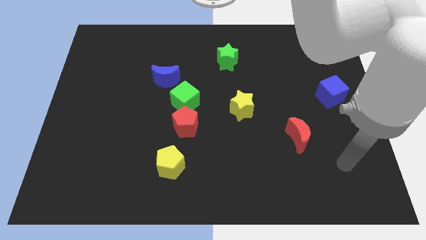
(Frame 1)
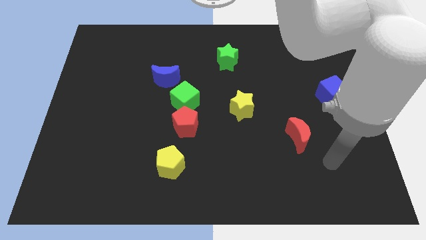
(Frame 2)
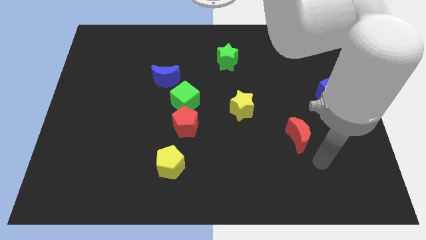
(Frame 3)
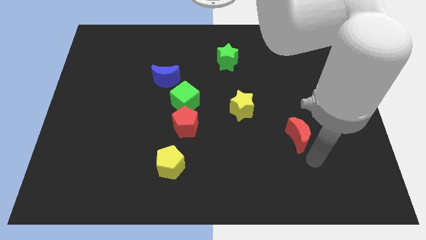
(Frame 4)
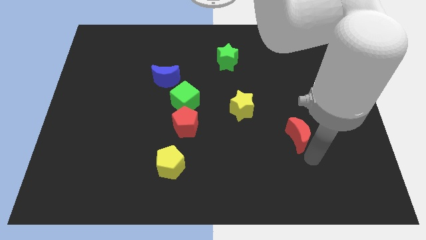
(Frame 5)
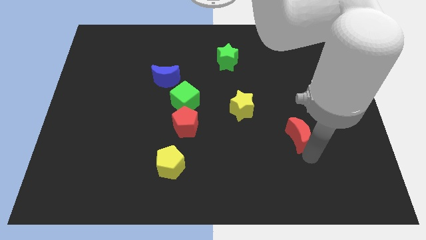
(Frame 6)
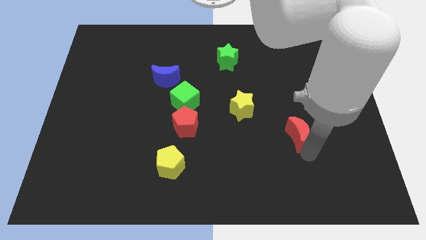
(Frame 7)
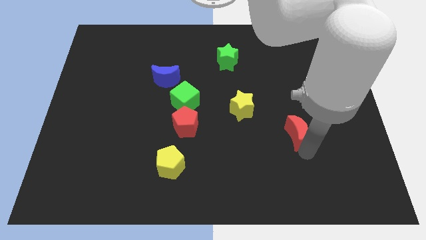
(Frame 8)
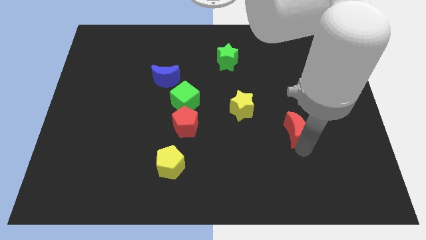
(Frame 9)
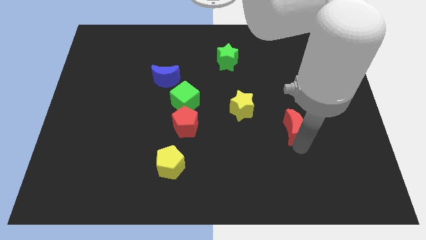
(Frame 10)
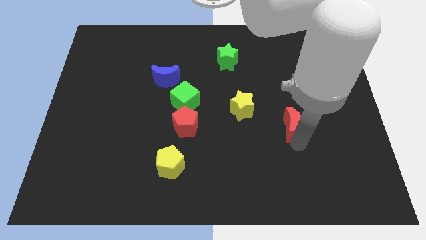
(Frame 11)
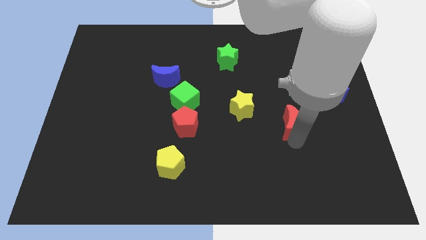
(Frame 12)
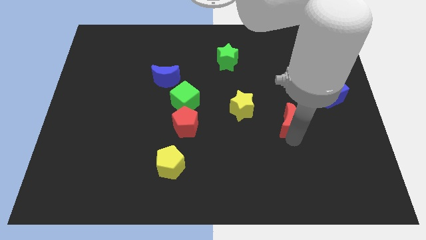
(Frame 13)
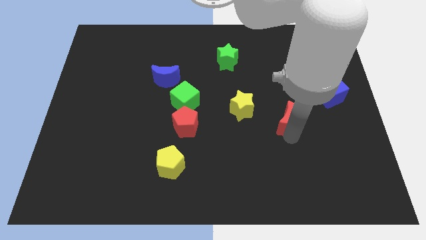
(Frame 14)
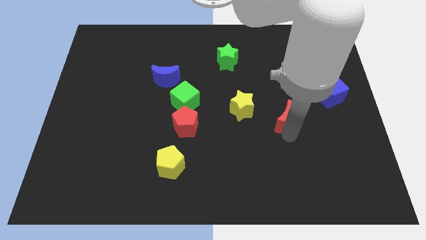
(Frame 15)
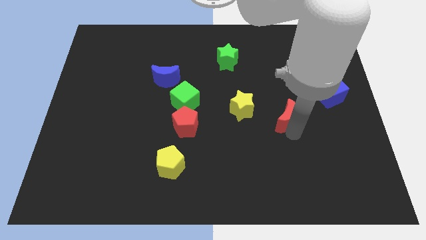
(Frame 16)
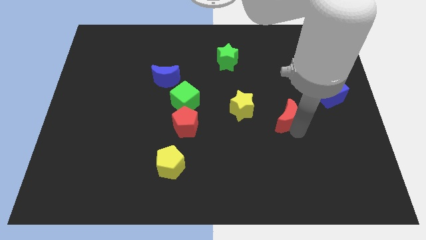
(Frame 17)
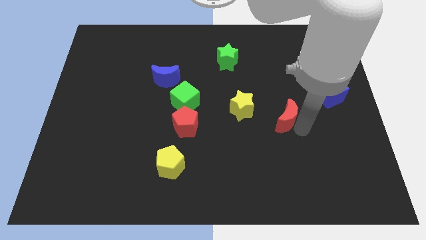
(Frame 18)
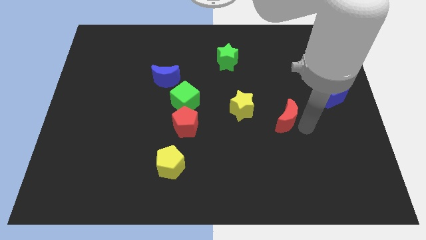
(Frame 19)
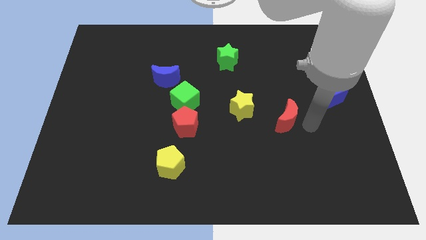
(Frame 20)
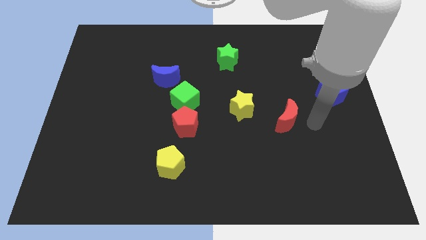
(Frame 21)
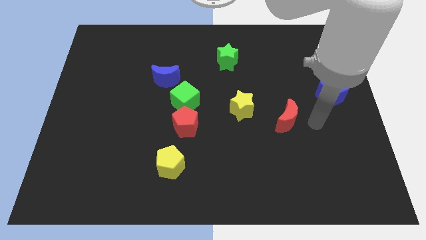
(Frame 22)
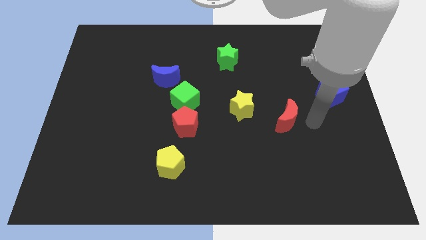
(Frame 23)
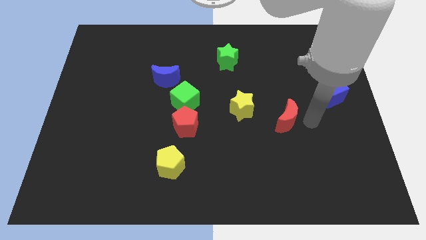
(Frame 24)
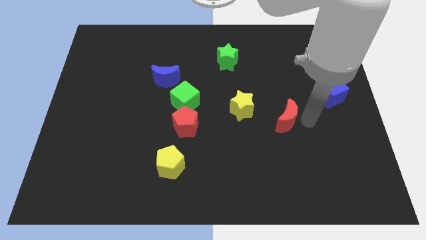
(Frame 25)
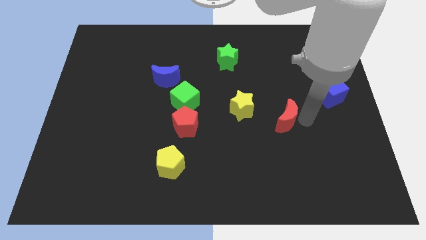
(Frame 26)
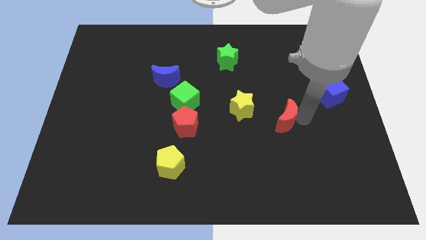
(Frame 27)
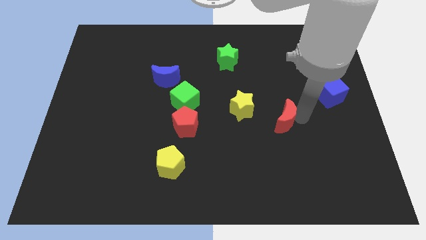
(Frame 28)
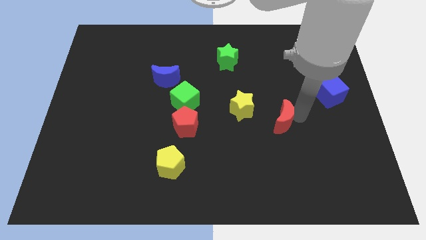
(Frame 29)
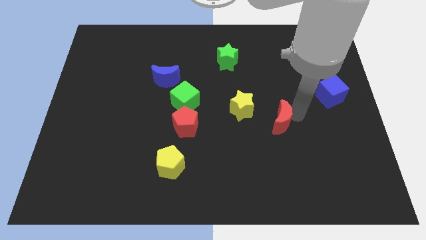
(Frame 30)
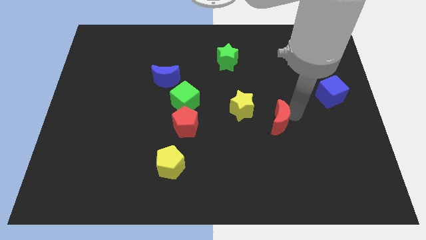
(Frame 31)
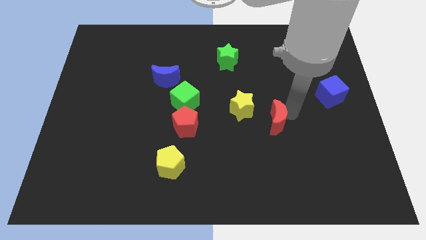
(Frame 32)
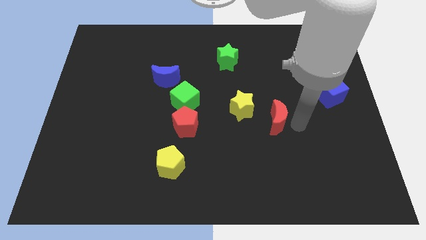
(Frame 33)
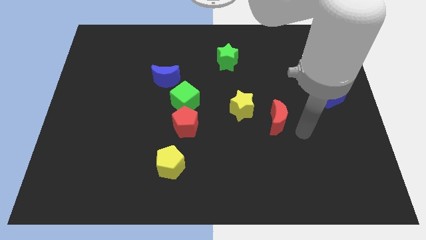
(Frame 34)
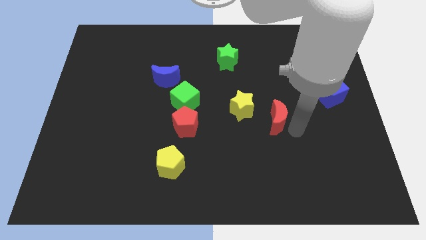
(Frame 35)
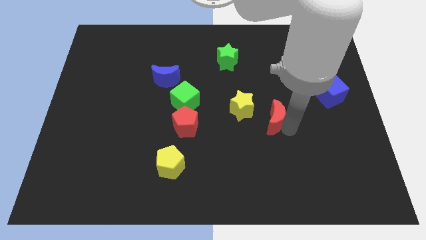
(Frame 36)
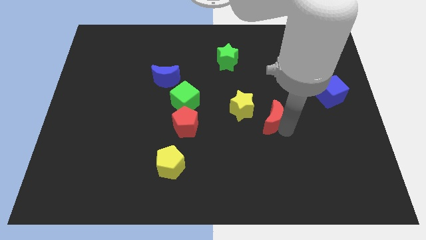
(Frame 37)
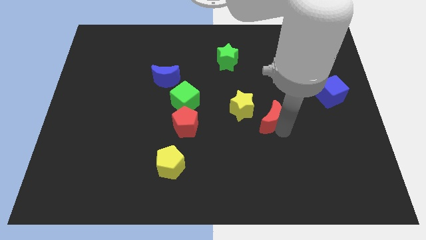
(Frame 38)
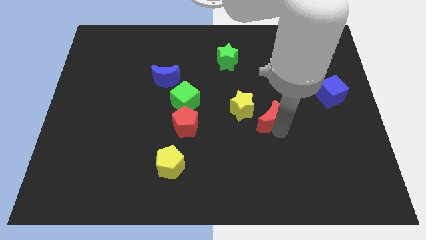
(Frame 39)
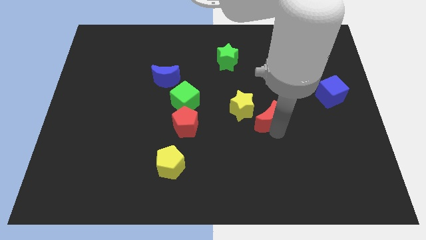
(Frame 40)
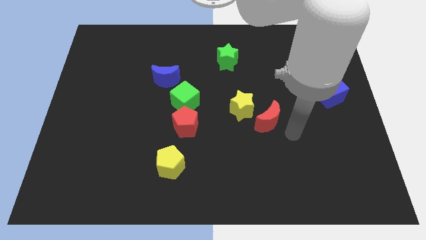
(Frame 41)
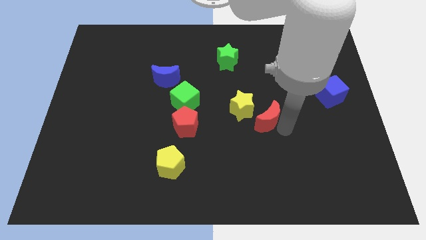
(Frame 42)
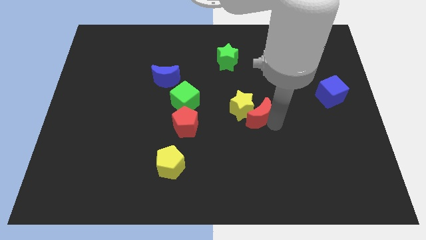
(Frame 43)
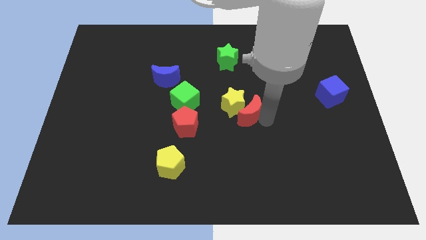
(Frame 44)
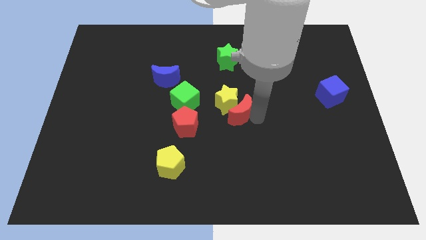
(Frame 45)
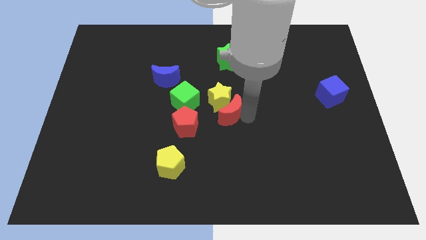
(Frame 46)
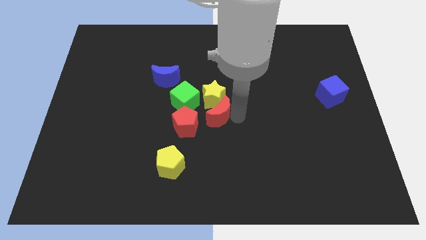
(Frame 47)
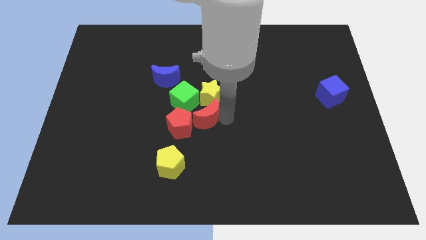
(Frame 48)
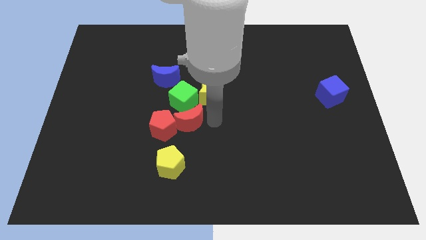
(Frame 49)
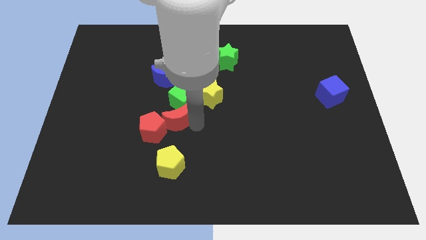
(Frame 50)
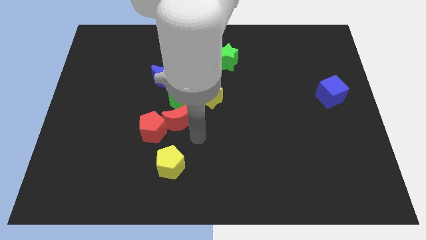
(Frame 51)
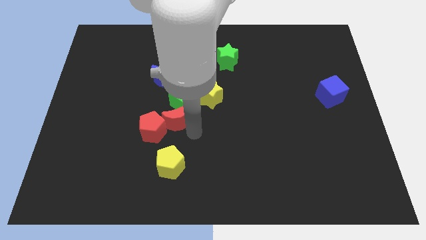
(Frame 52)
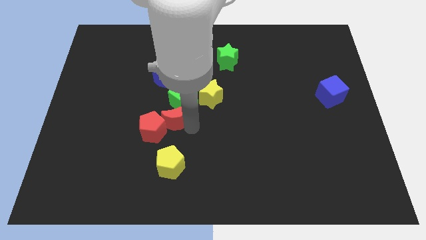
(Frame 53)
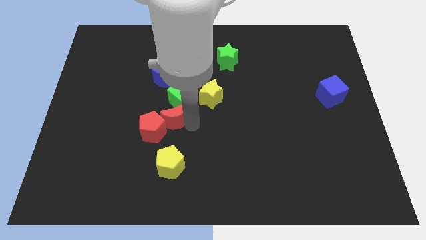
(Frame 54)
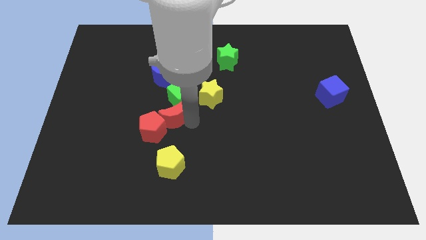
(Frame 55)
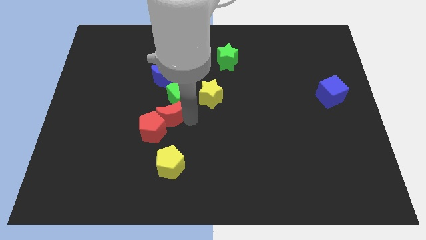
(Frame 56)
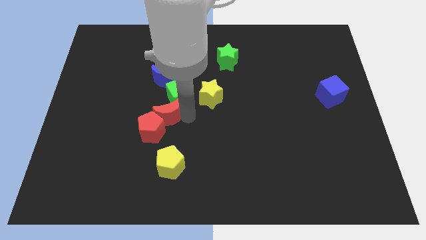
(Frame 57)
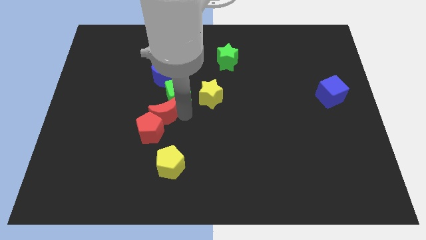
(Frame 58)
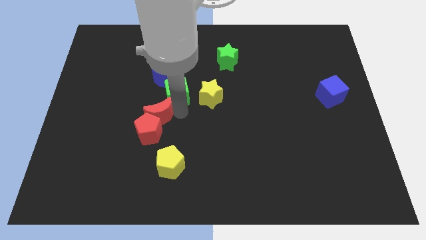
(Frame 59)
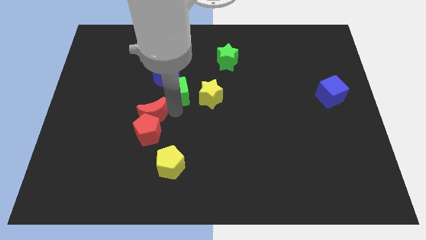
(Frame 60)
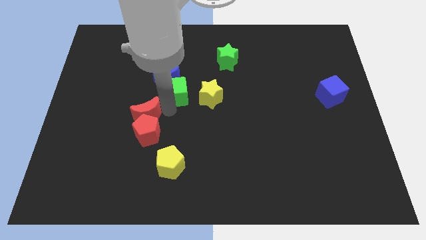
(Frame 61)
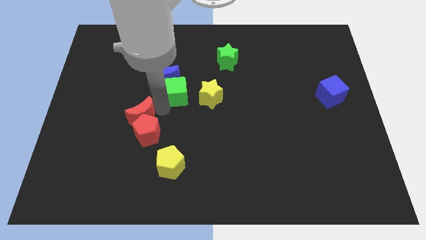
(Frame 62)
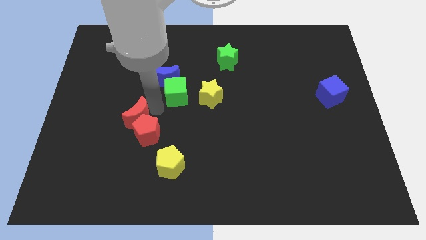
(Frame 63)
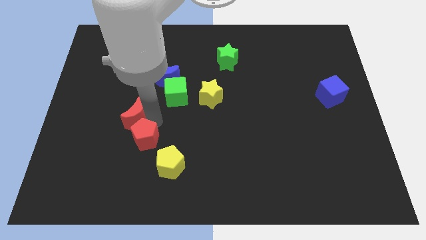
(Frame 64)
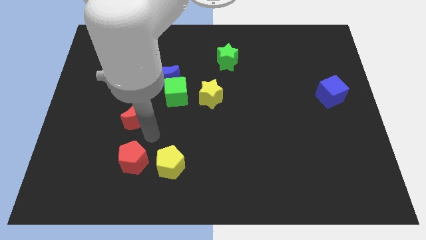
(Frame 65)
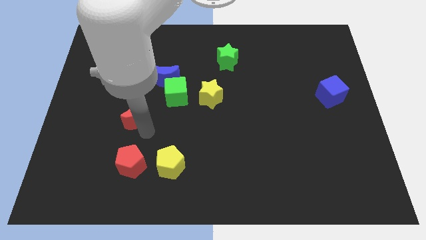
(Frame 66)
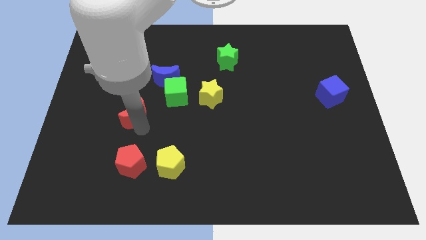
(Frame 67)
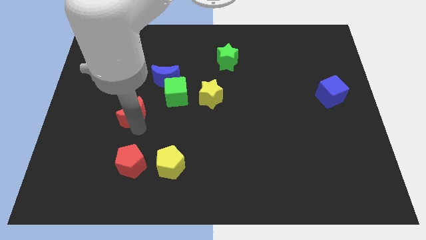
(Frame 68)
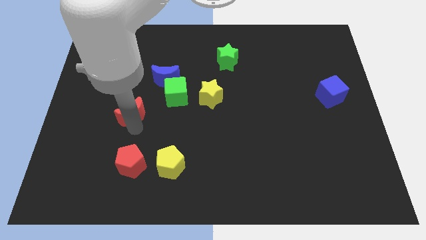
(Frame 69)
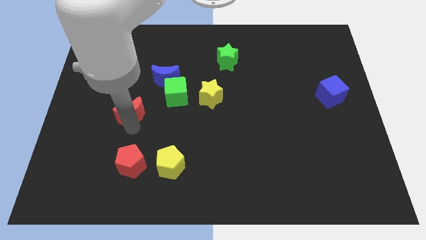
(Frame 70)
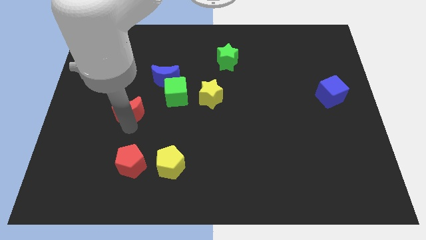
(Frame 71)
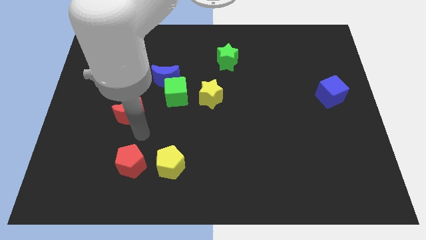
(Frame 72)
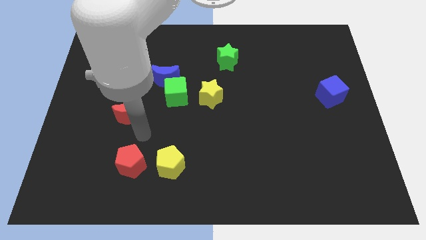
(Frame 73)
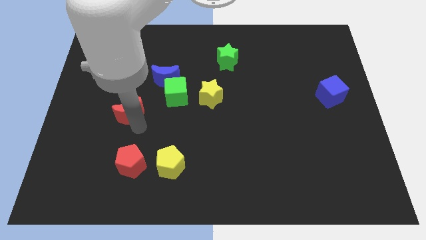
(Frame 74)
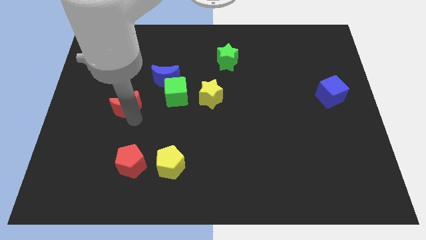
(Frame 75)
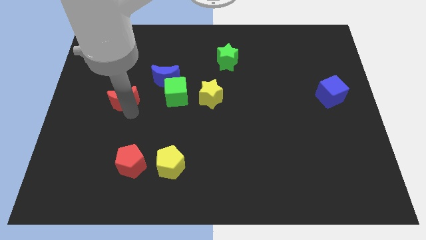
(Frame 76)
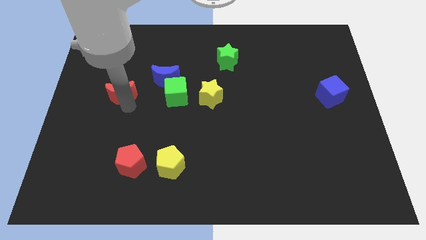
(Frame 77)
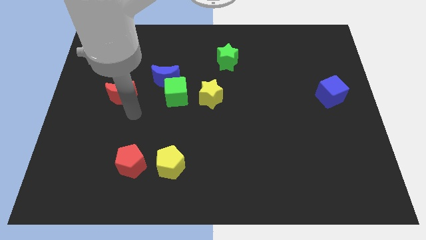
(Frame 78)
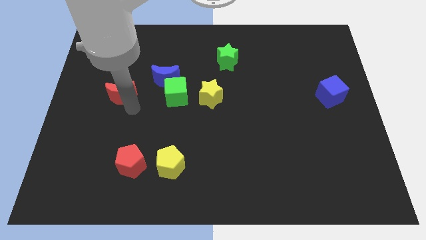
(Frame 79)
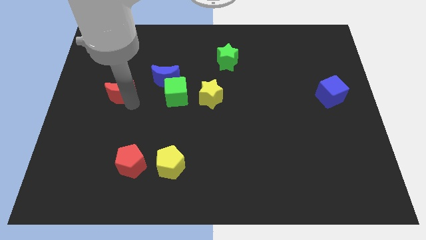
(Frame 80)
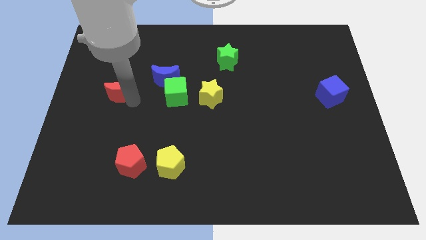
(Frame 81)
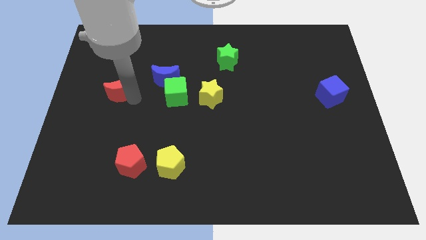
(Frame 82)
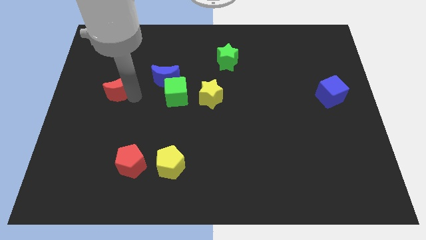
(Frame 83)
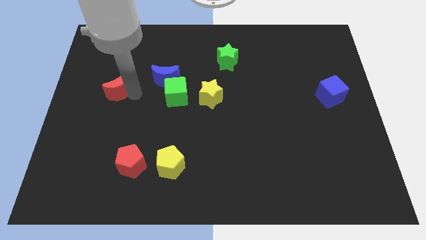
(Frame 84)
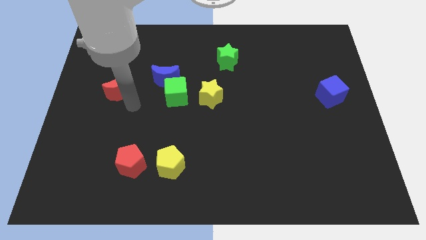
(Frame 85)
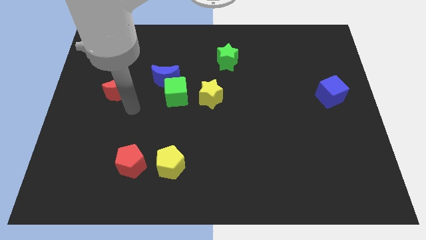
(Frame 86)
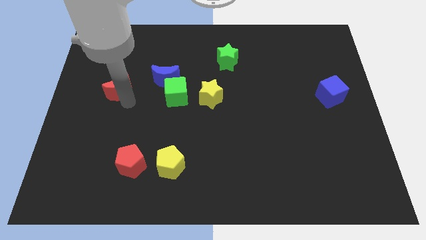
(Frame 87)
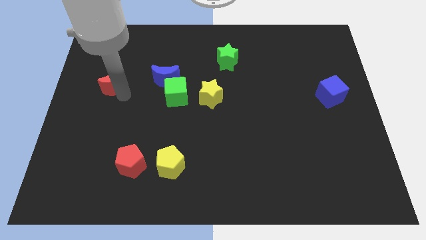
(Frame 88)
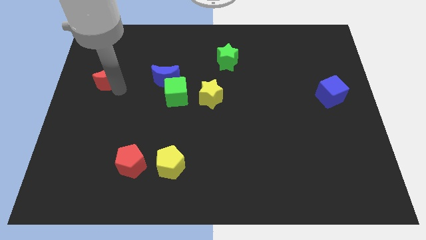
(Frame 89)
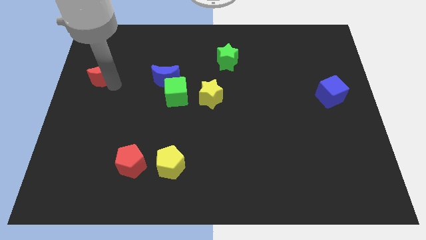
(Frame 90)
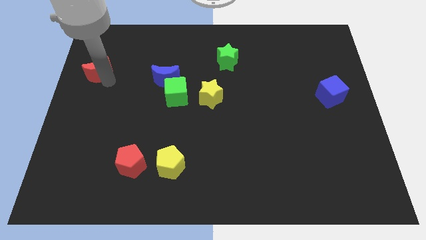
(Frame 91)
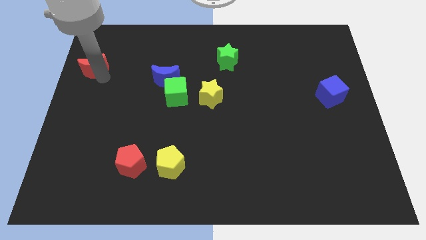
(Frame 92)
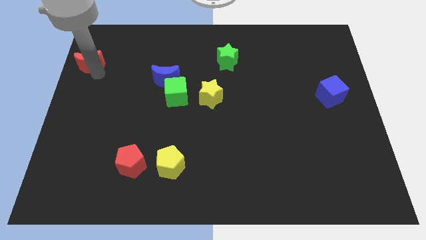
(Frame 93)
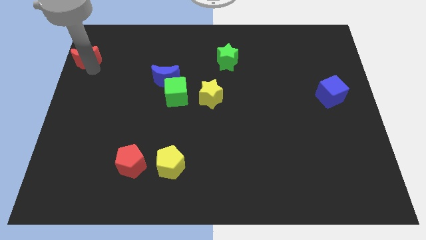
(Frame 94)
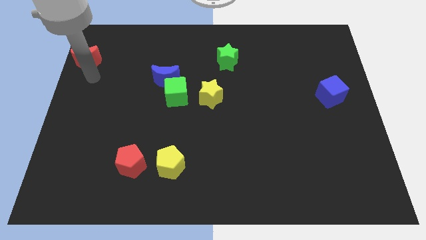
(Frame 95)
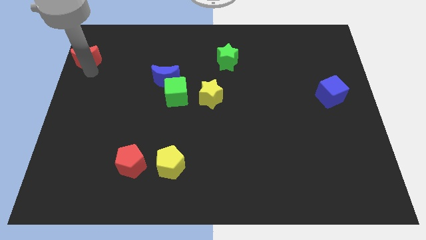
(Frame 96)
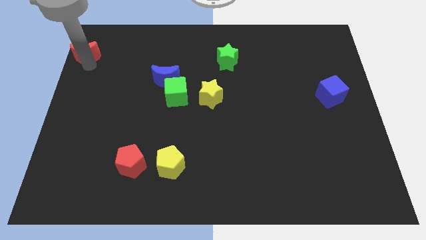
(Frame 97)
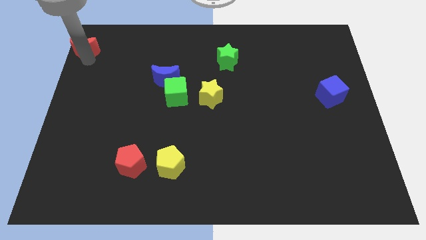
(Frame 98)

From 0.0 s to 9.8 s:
slide the red moon to the upper left corner
